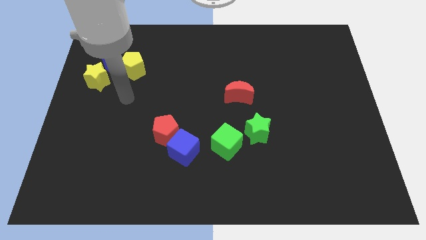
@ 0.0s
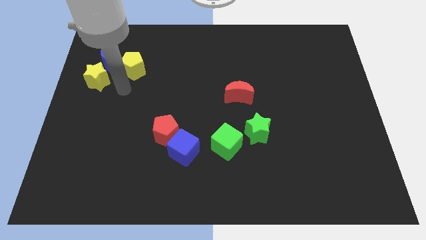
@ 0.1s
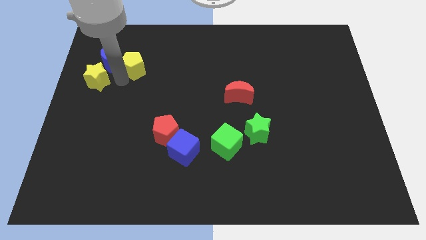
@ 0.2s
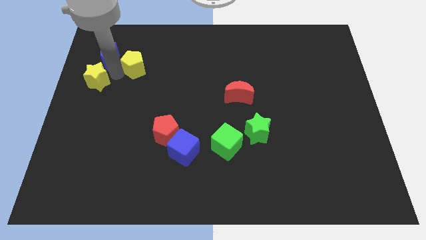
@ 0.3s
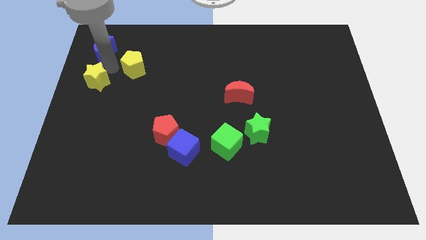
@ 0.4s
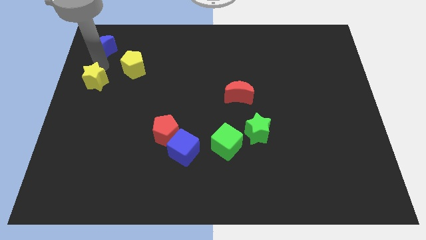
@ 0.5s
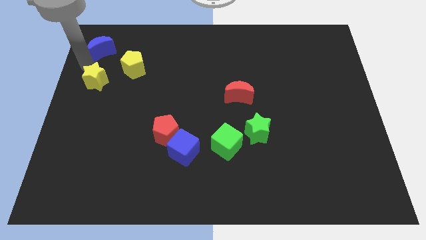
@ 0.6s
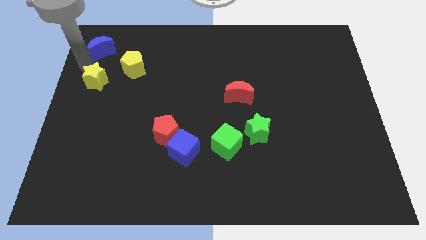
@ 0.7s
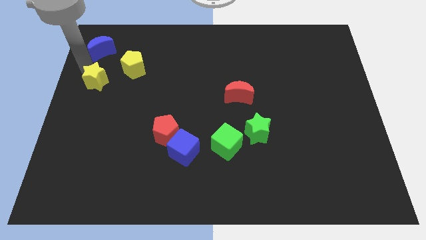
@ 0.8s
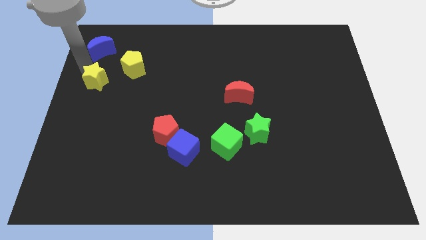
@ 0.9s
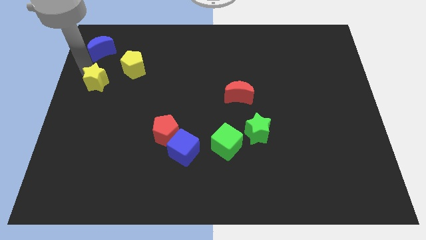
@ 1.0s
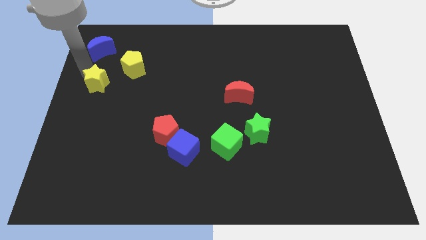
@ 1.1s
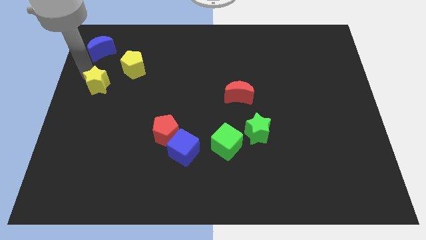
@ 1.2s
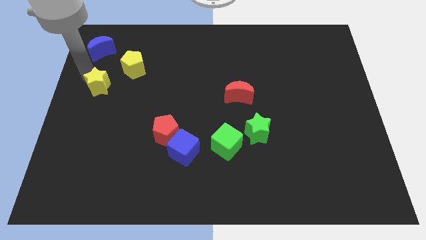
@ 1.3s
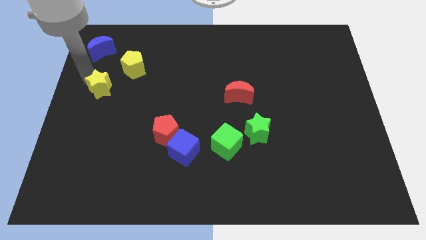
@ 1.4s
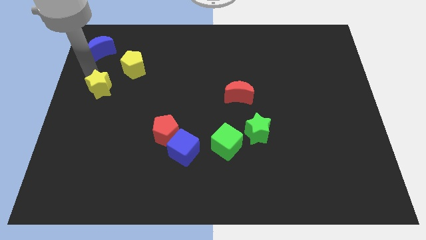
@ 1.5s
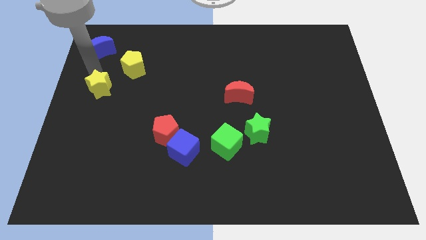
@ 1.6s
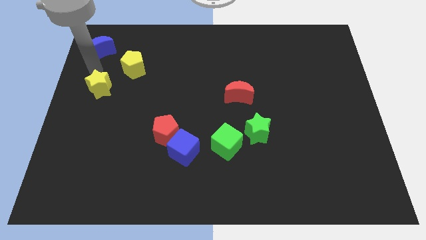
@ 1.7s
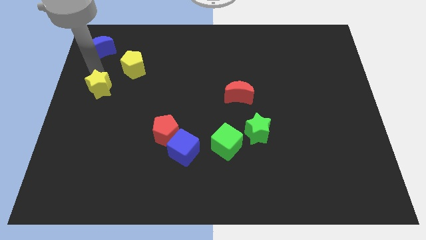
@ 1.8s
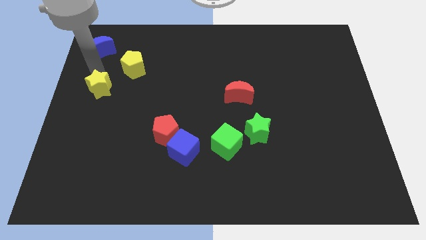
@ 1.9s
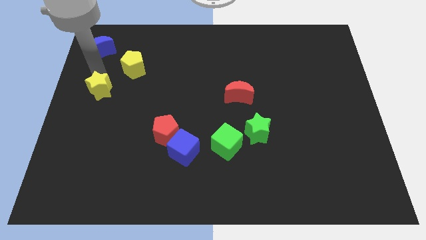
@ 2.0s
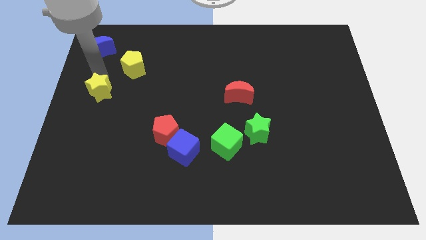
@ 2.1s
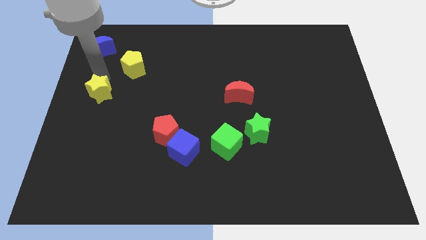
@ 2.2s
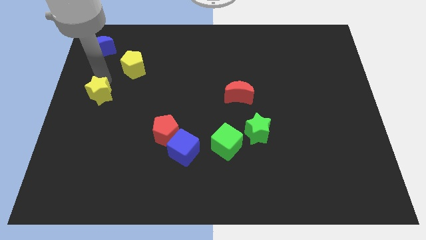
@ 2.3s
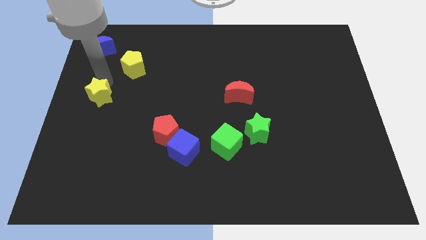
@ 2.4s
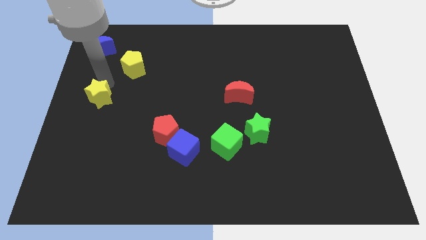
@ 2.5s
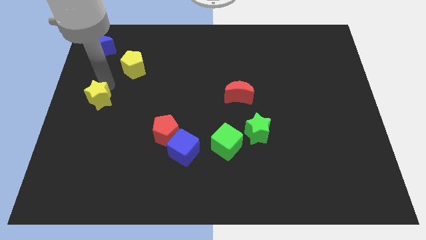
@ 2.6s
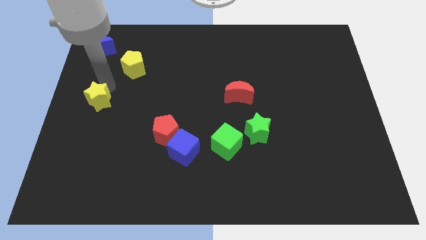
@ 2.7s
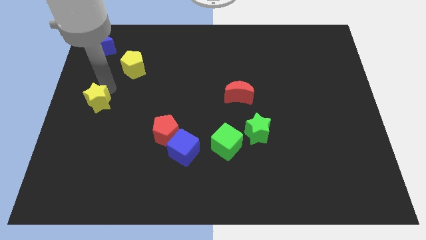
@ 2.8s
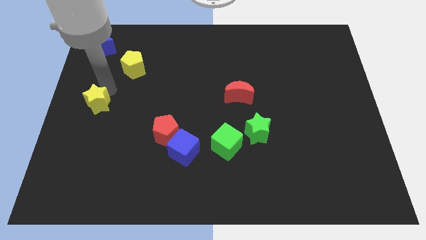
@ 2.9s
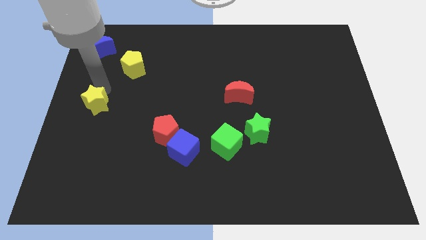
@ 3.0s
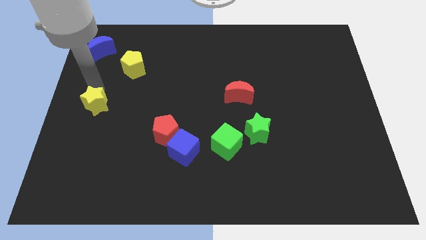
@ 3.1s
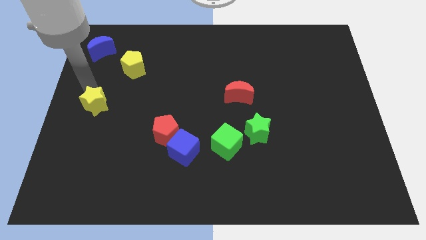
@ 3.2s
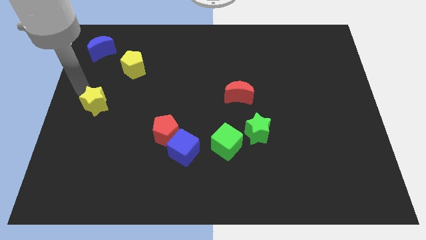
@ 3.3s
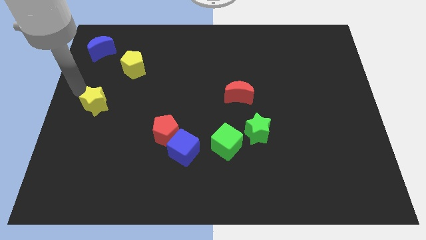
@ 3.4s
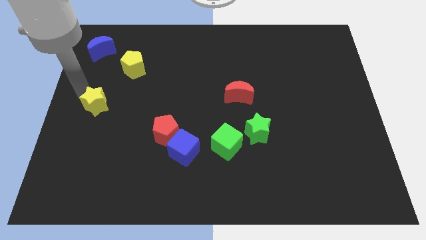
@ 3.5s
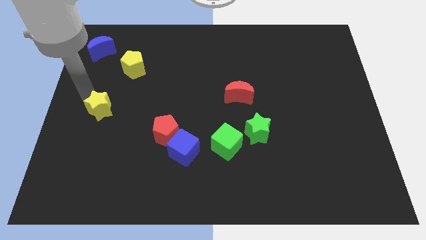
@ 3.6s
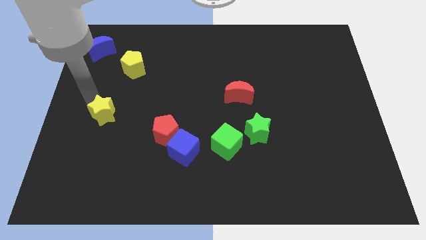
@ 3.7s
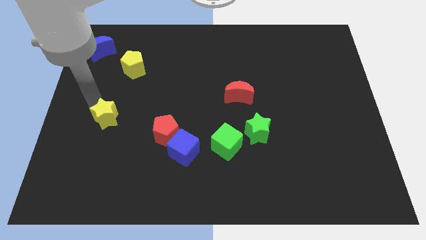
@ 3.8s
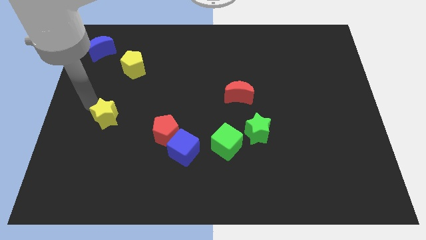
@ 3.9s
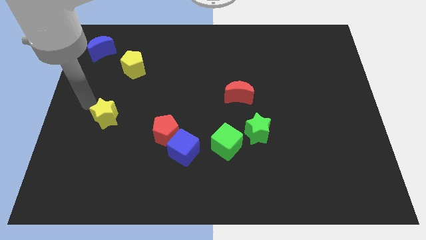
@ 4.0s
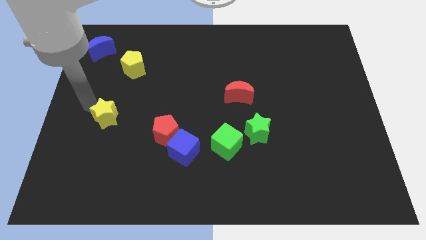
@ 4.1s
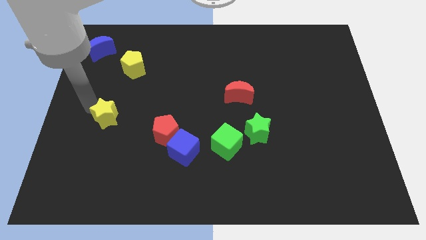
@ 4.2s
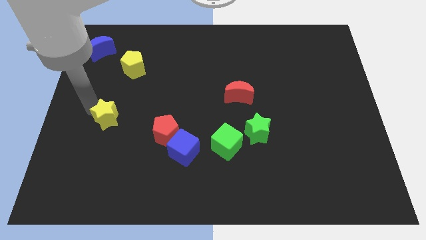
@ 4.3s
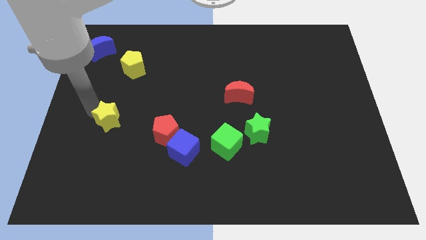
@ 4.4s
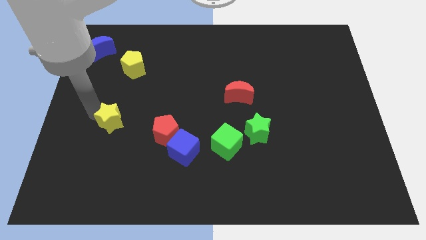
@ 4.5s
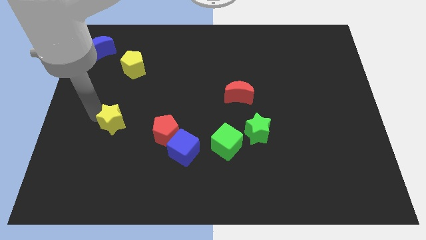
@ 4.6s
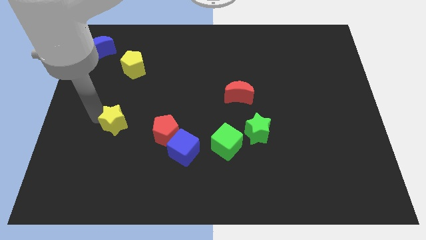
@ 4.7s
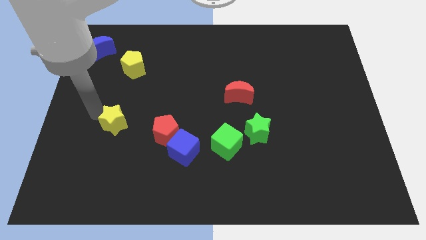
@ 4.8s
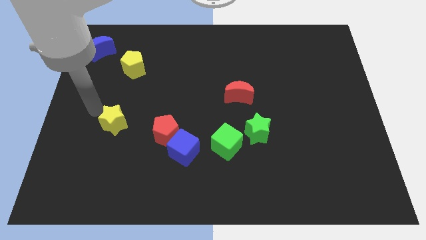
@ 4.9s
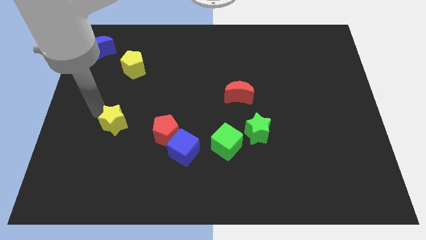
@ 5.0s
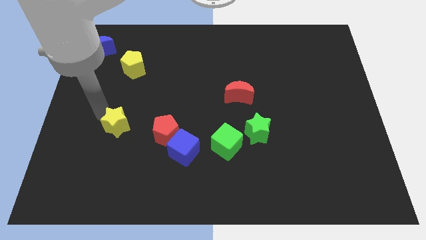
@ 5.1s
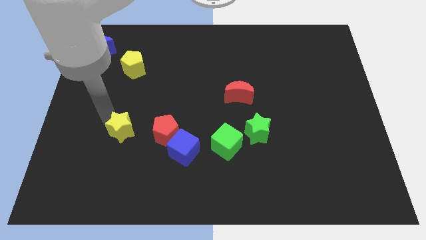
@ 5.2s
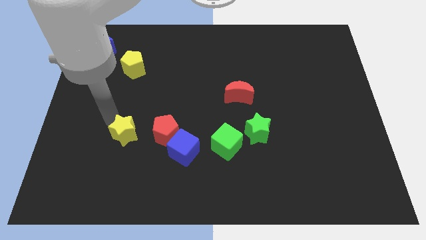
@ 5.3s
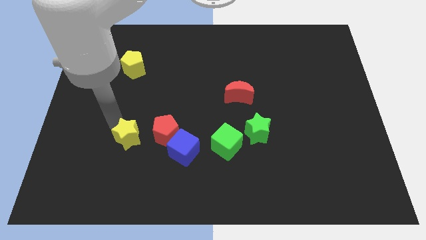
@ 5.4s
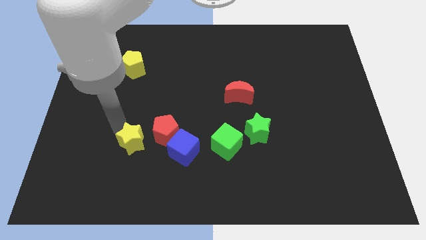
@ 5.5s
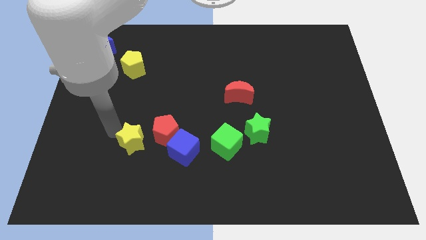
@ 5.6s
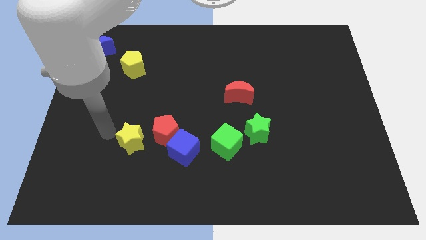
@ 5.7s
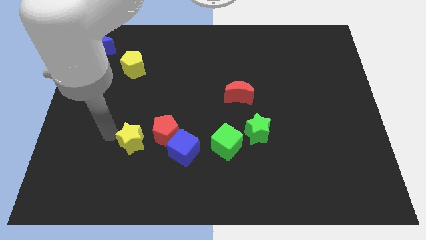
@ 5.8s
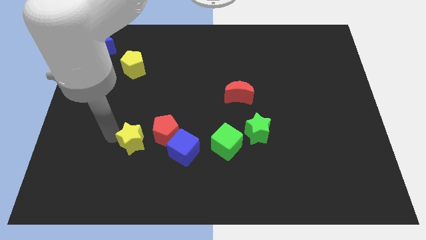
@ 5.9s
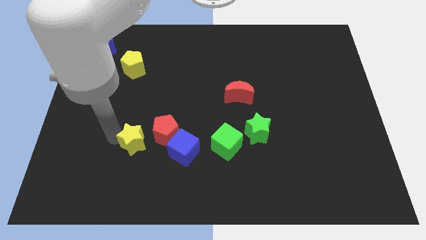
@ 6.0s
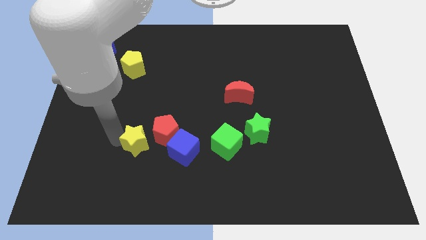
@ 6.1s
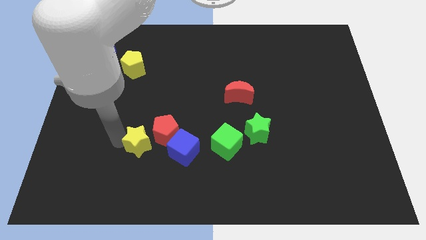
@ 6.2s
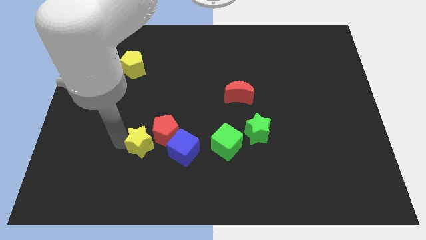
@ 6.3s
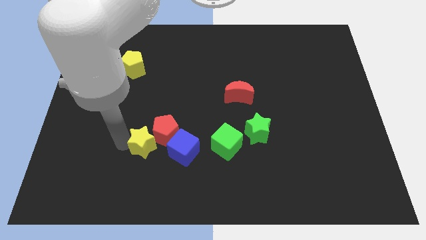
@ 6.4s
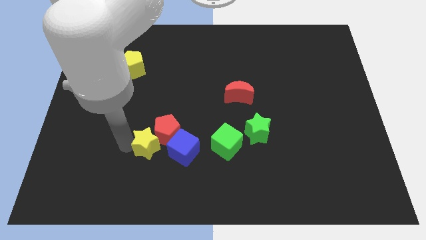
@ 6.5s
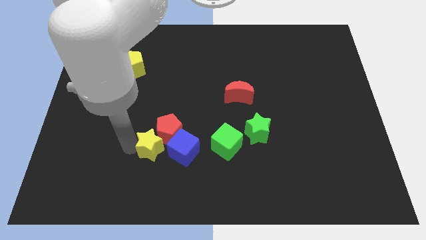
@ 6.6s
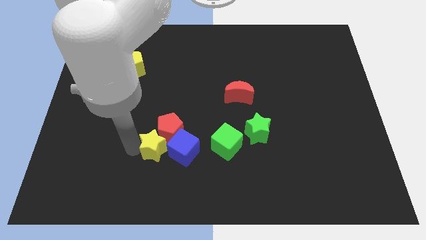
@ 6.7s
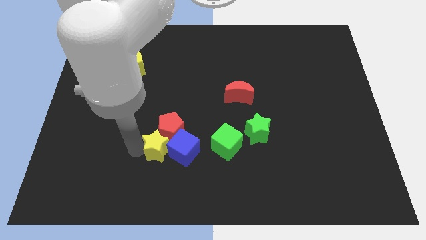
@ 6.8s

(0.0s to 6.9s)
put the yellow star close to the blue cube

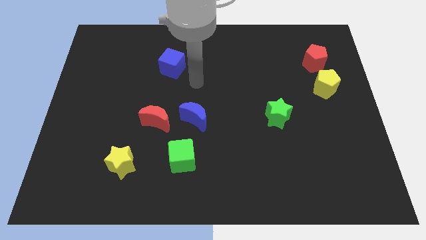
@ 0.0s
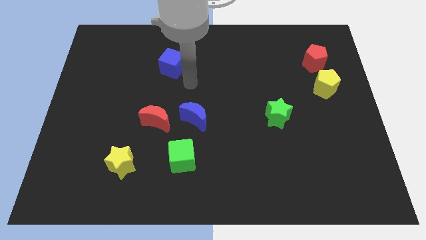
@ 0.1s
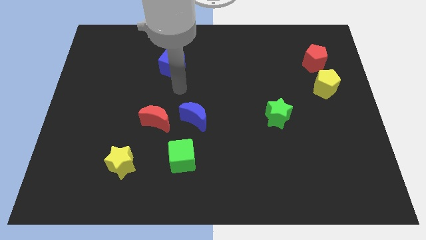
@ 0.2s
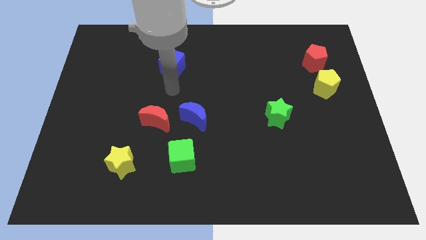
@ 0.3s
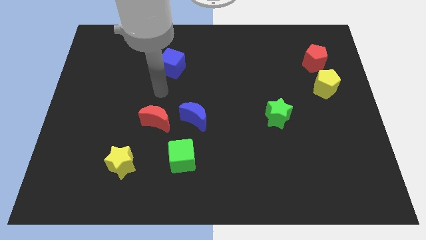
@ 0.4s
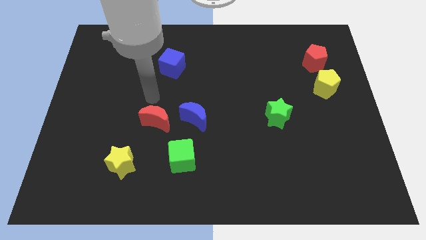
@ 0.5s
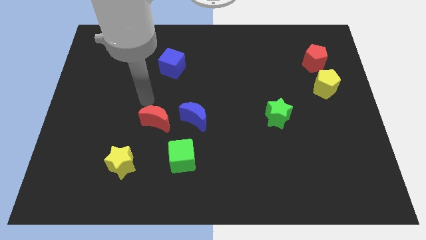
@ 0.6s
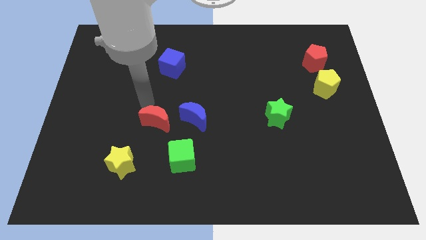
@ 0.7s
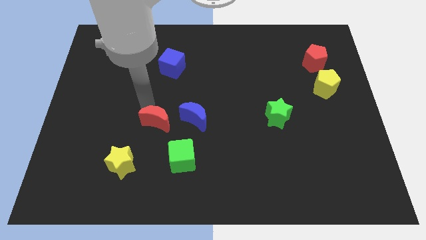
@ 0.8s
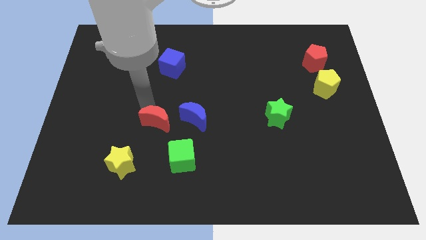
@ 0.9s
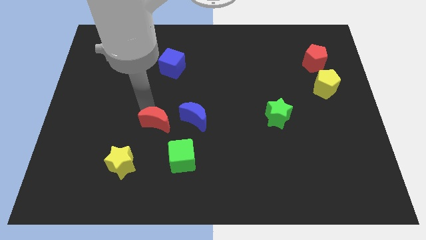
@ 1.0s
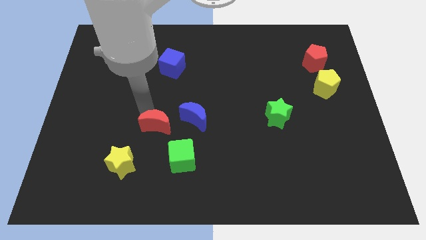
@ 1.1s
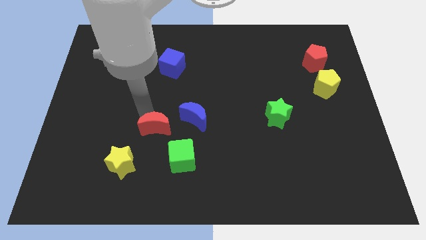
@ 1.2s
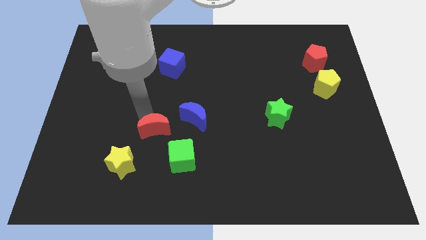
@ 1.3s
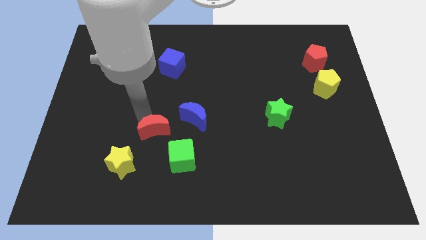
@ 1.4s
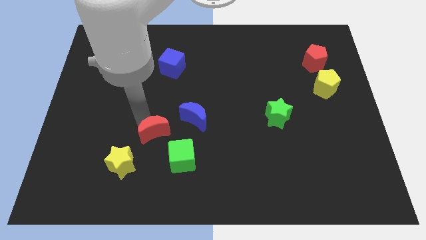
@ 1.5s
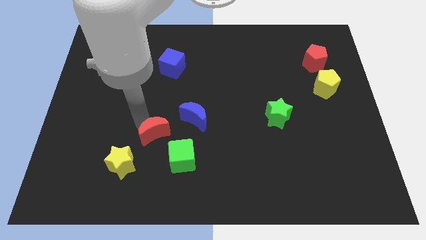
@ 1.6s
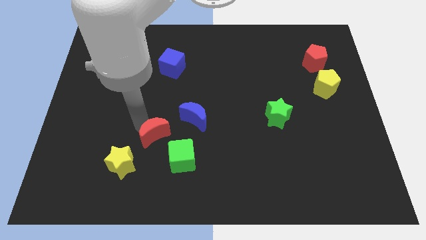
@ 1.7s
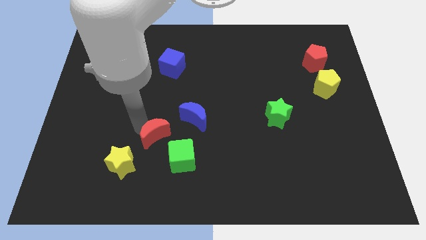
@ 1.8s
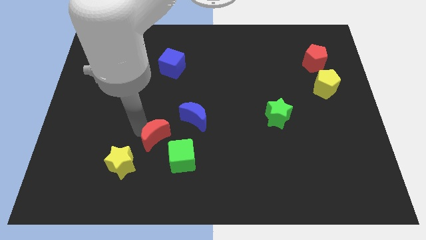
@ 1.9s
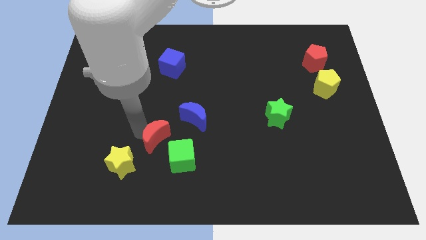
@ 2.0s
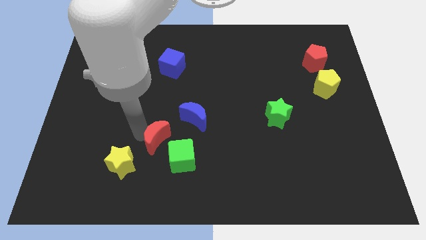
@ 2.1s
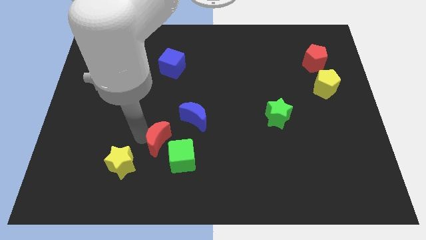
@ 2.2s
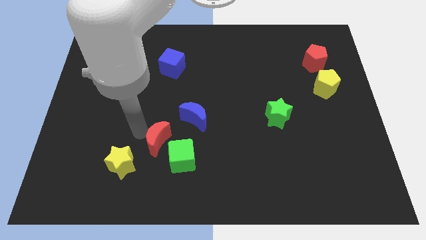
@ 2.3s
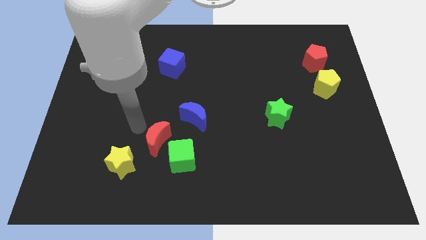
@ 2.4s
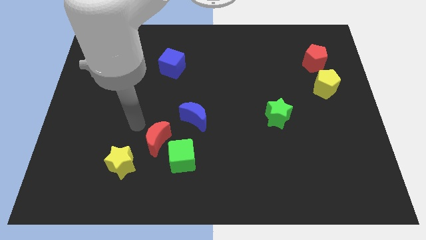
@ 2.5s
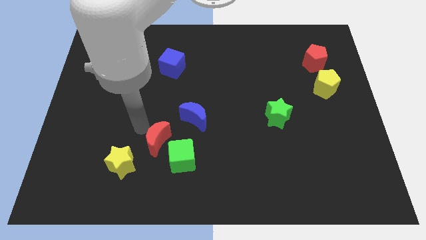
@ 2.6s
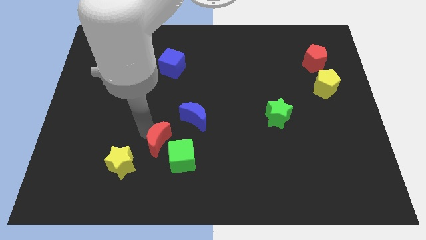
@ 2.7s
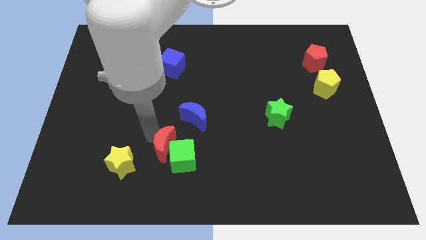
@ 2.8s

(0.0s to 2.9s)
move the red moon towards the green cube
